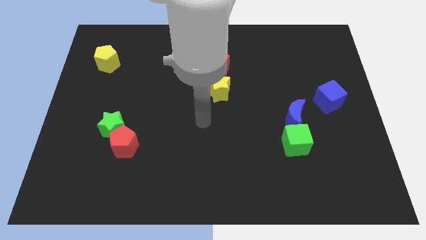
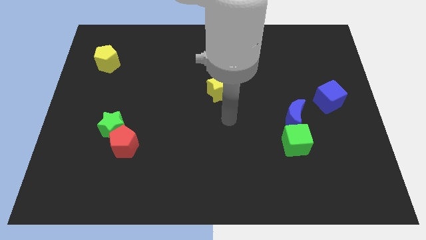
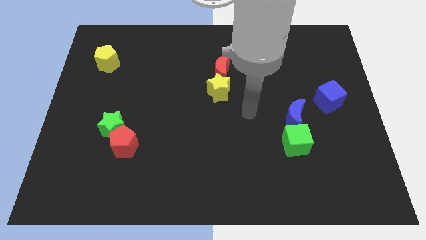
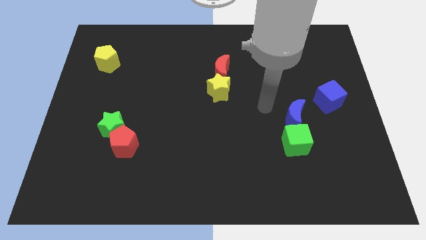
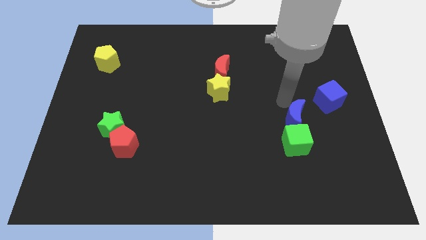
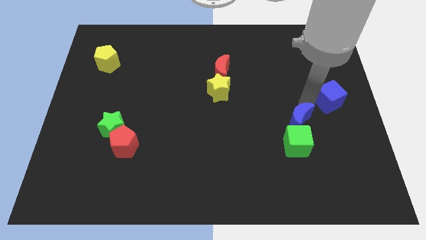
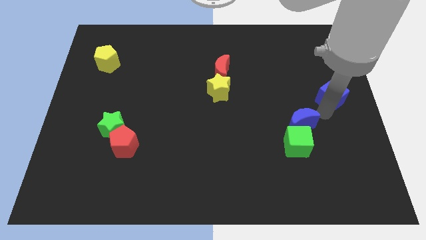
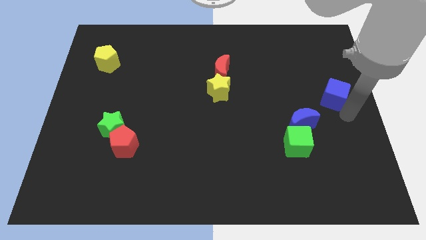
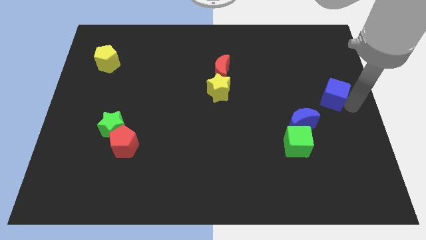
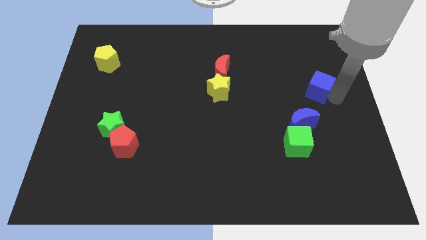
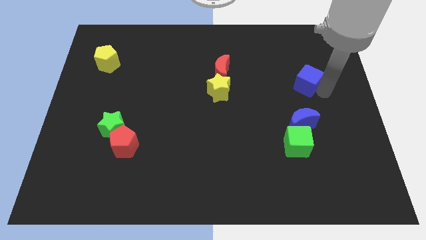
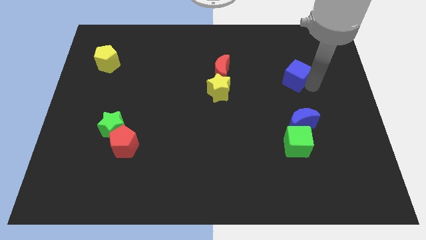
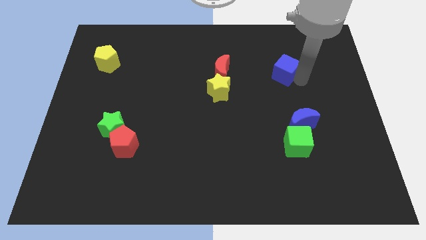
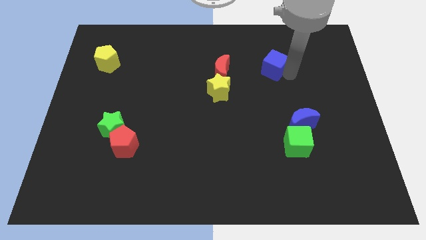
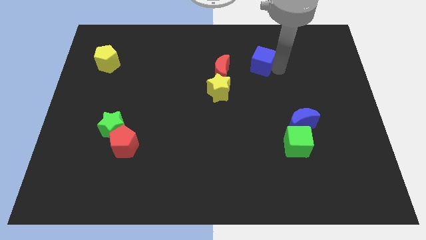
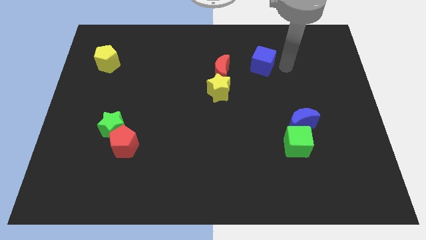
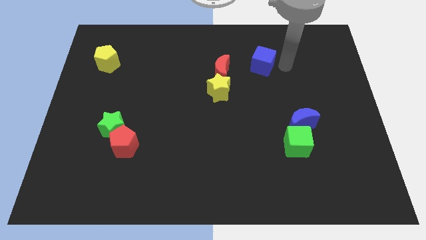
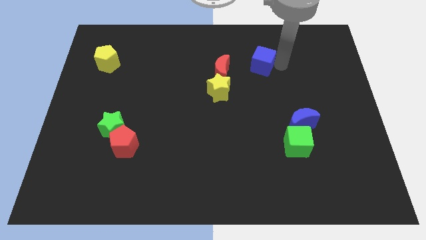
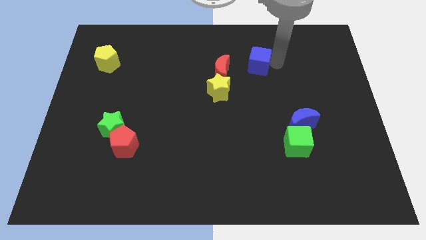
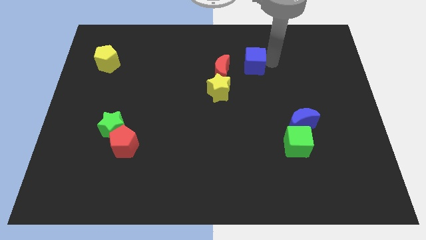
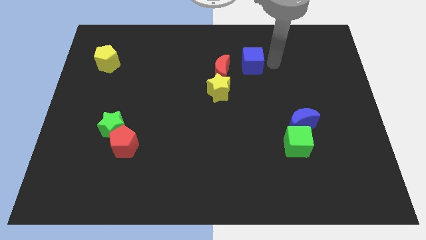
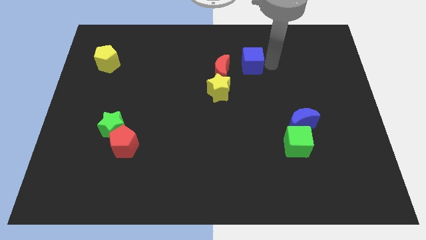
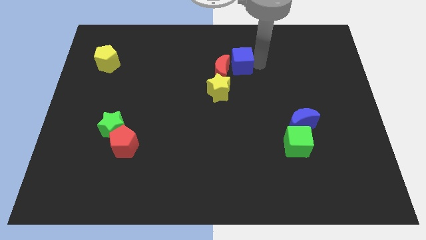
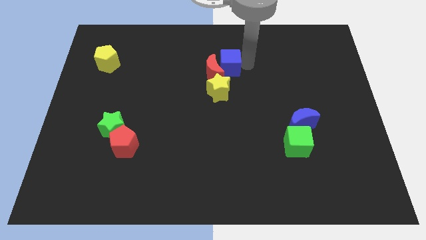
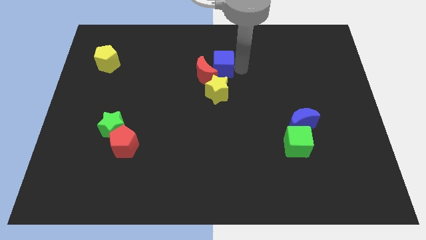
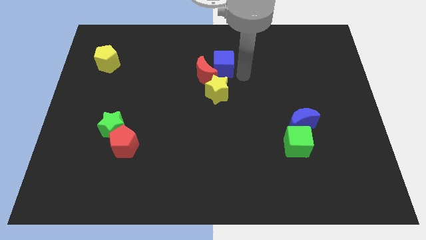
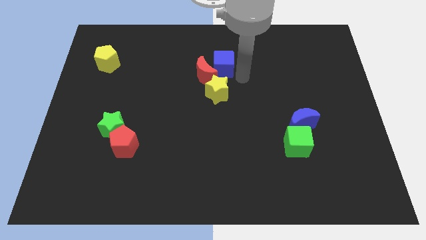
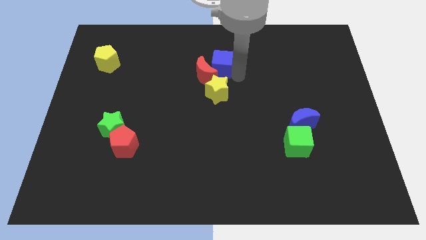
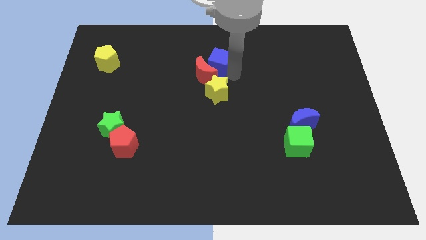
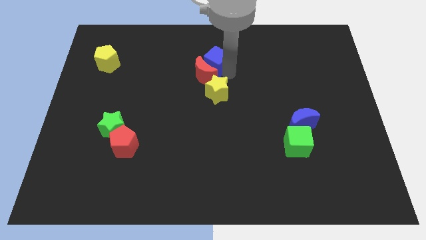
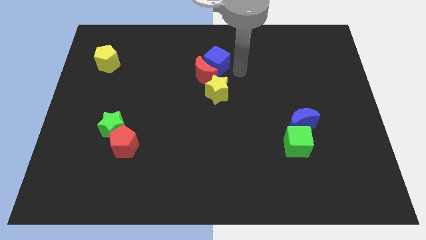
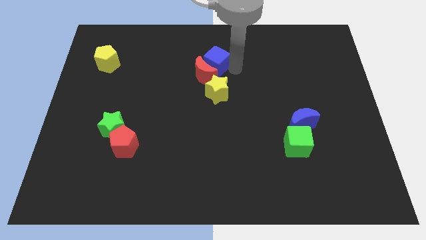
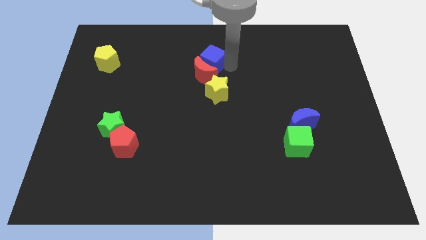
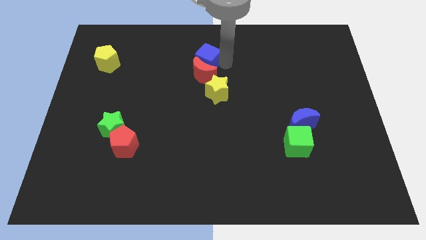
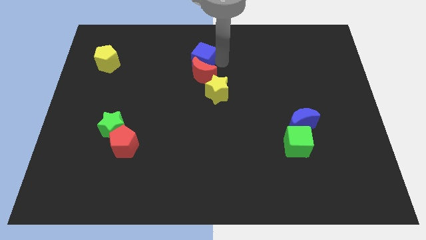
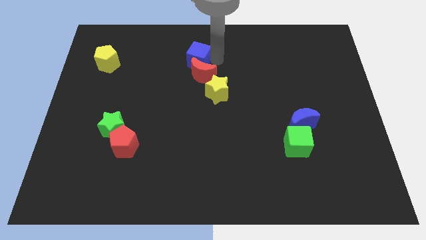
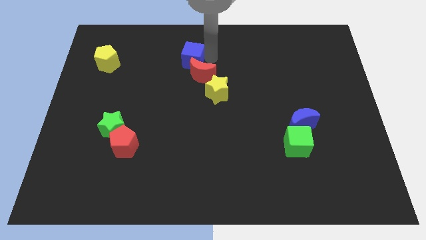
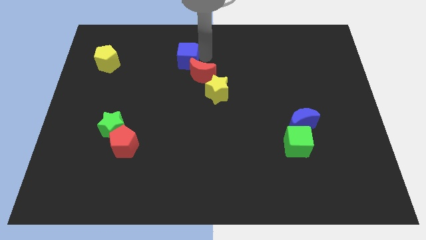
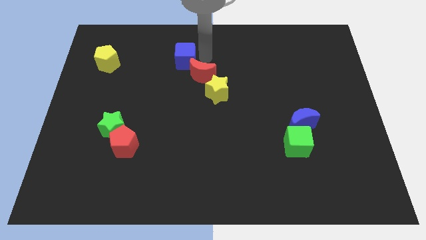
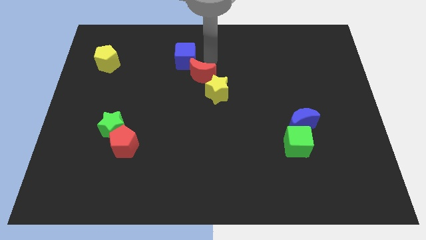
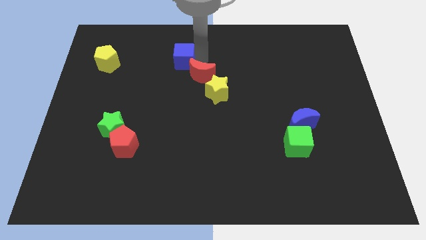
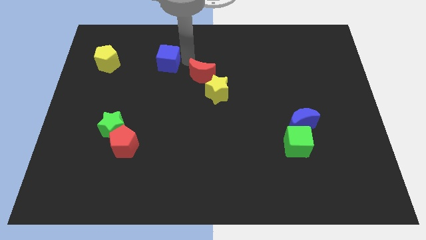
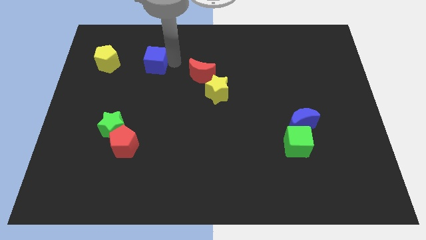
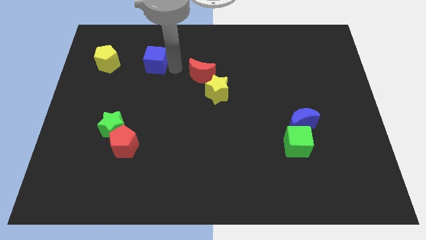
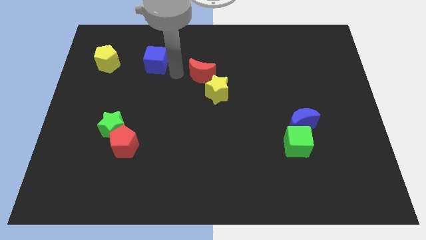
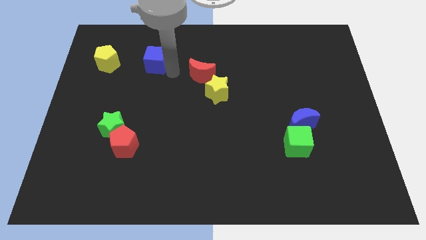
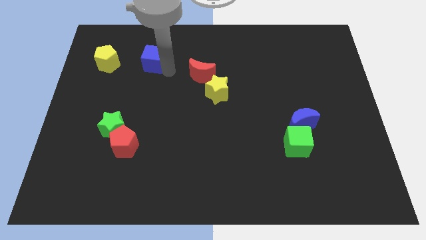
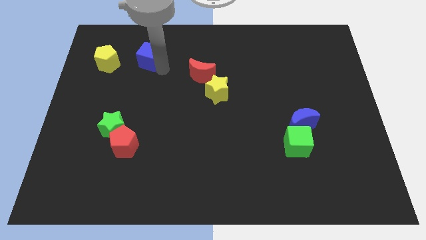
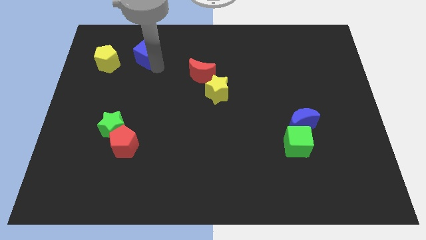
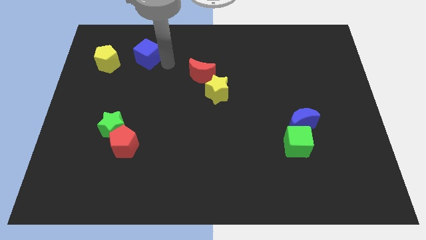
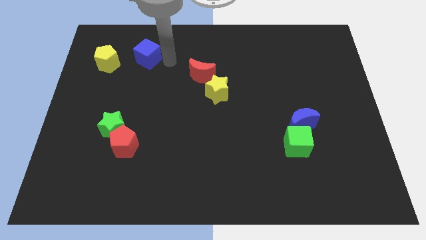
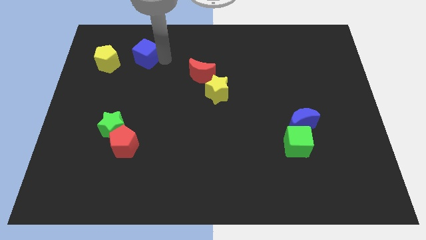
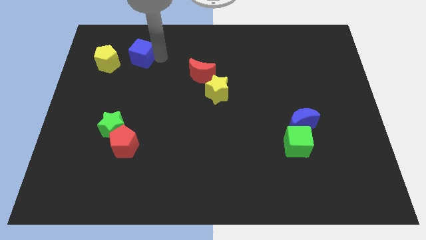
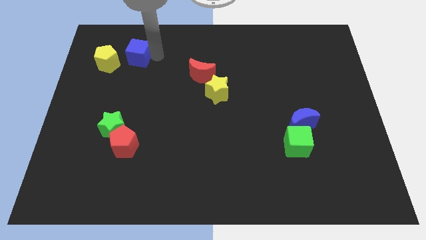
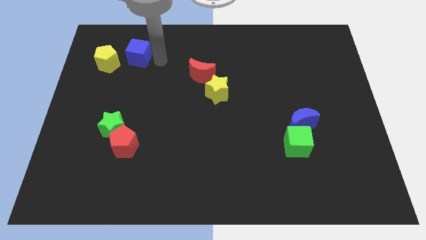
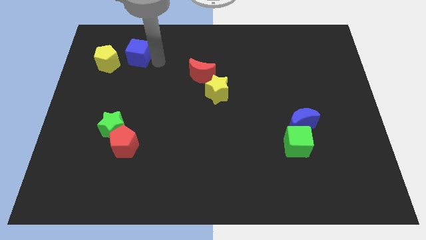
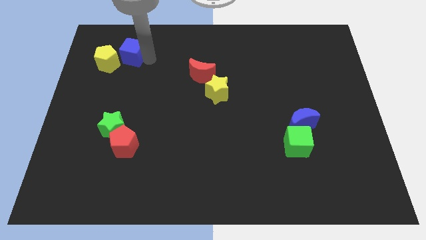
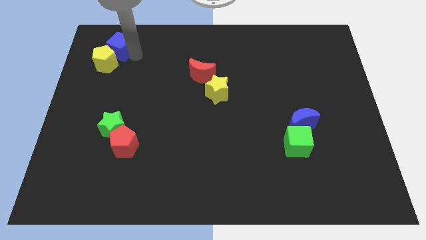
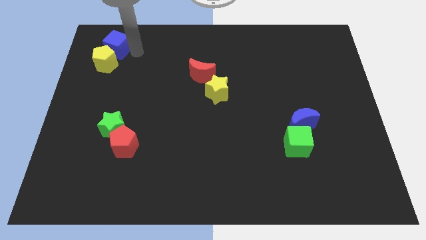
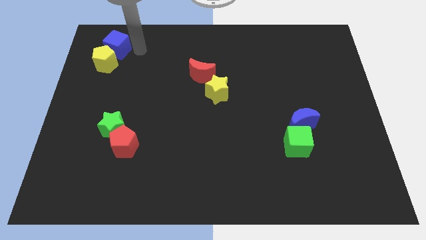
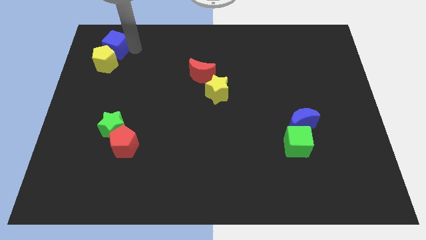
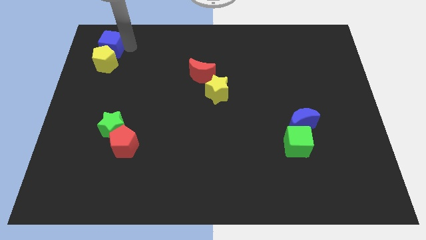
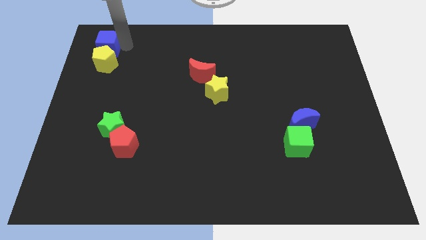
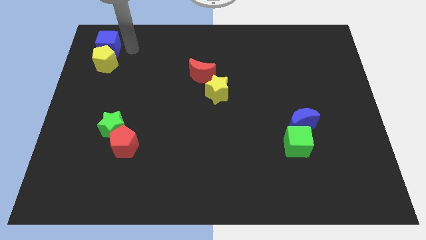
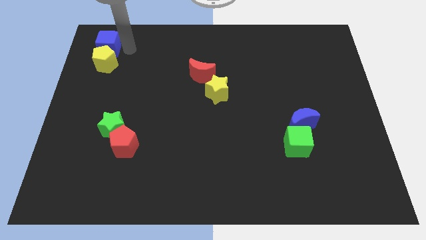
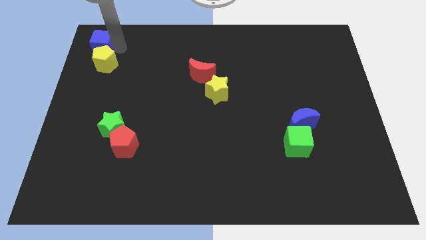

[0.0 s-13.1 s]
slide the blue cube to the top left of the board
